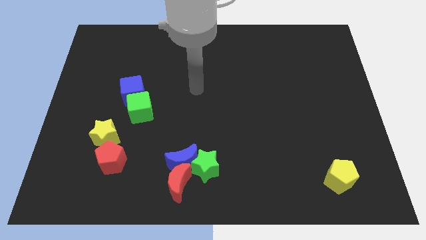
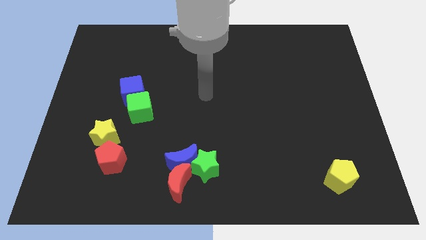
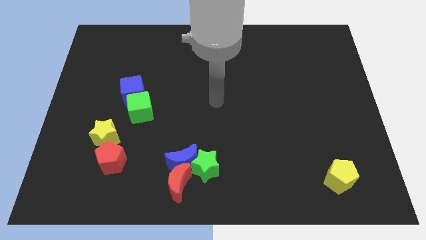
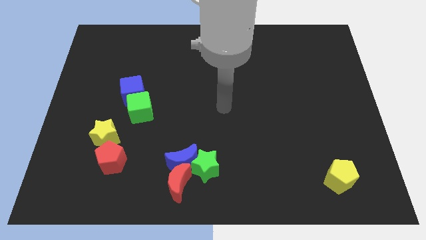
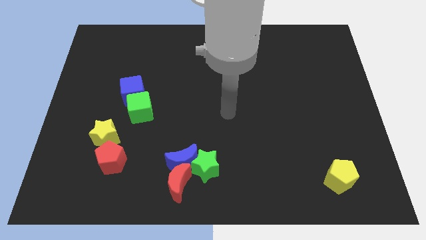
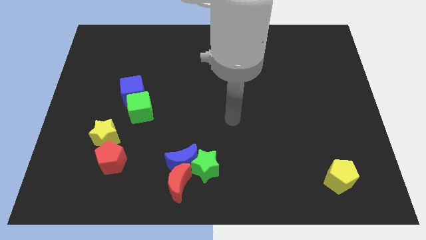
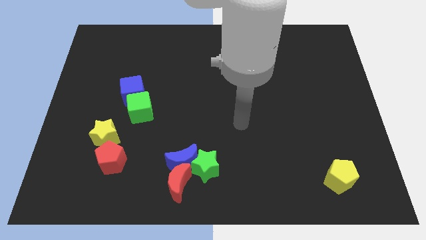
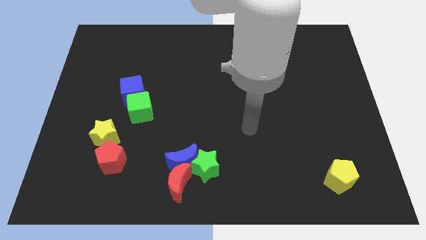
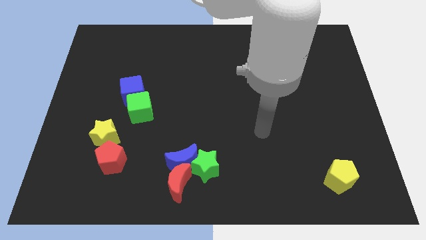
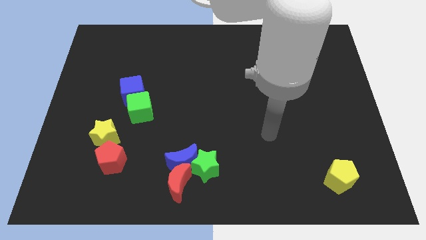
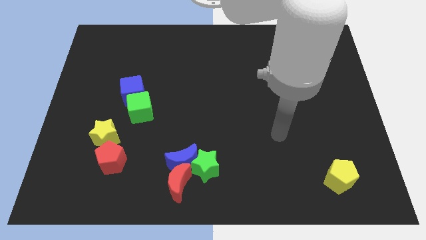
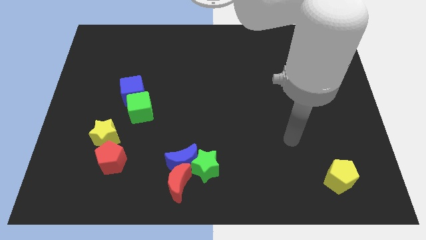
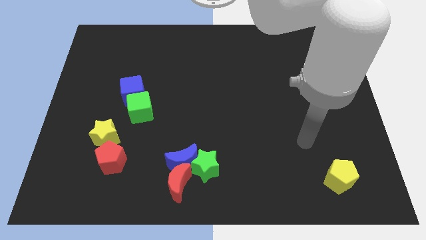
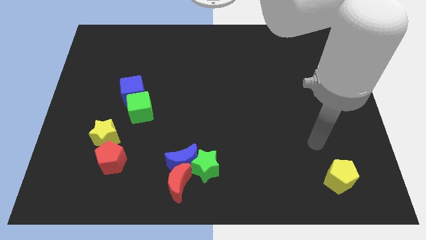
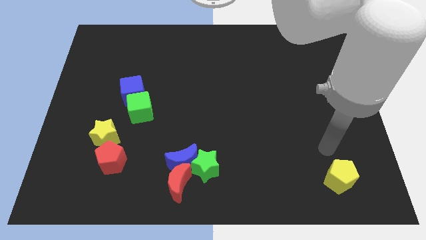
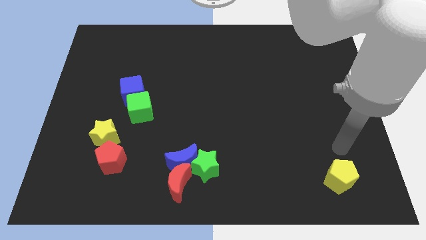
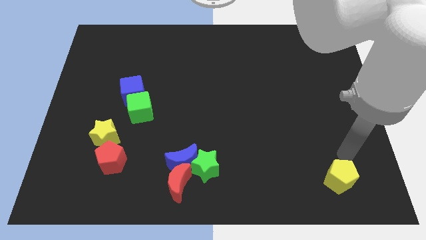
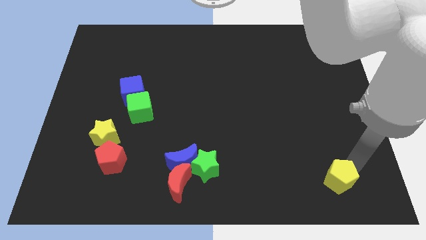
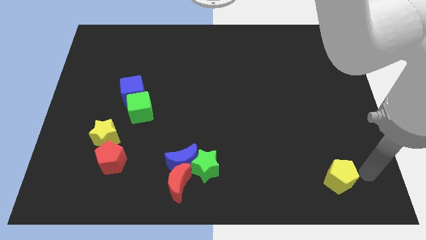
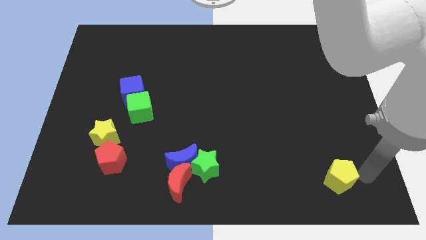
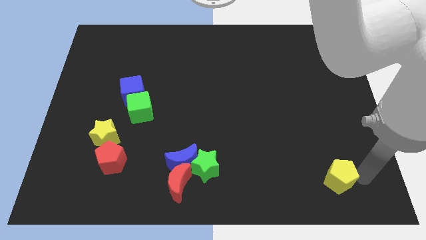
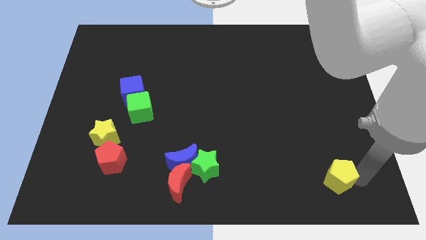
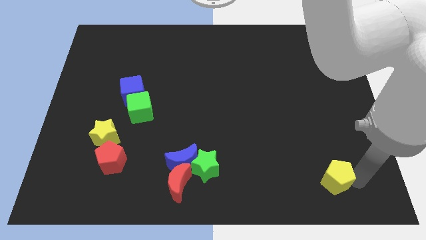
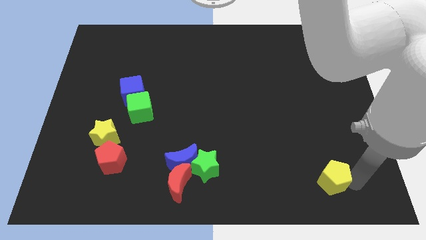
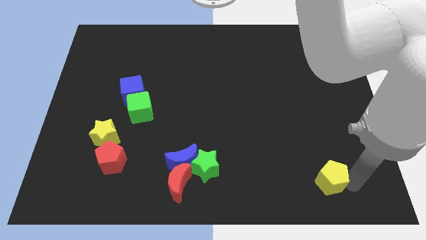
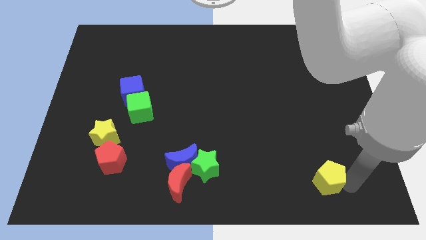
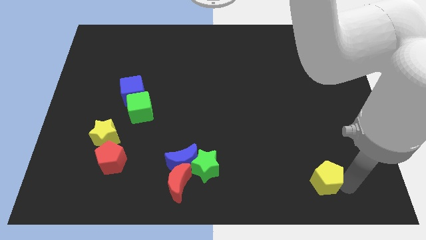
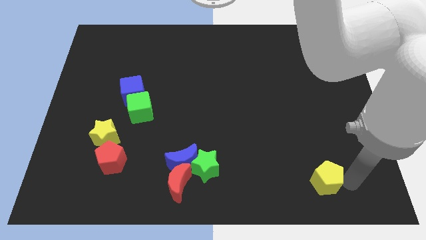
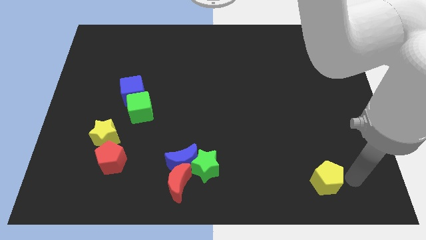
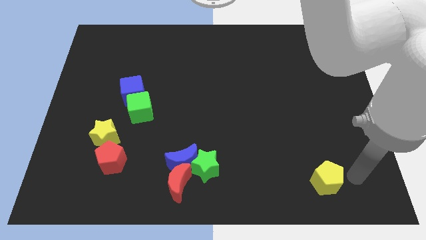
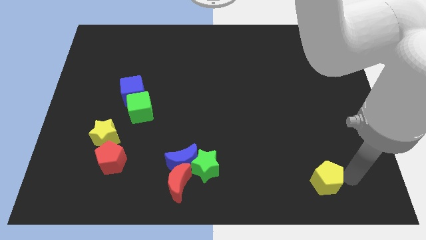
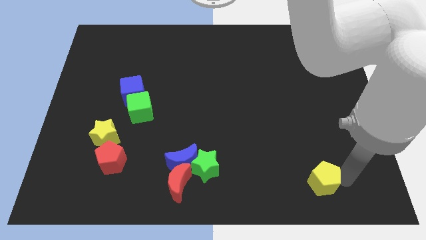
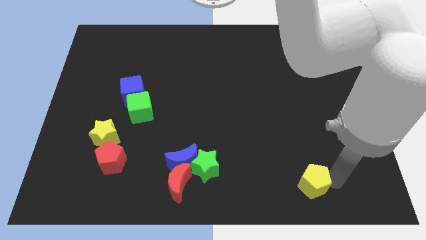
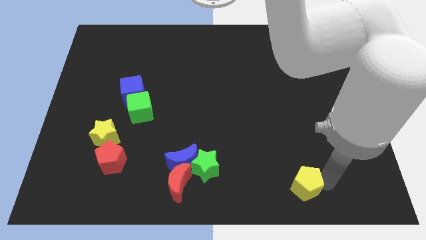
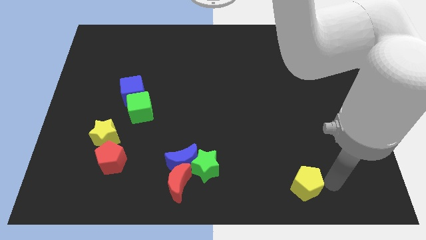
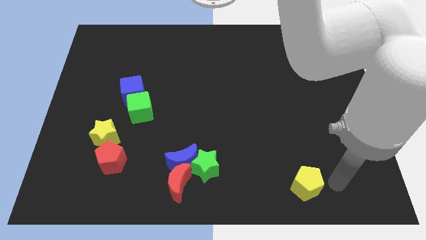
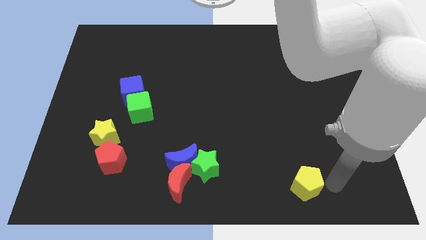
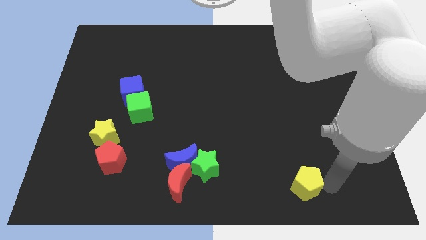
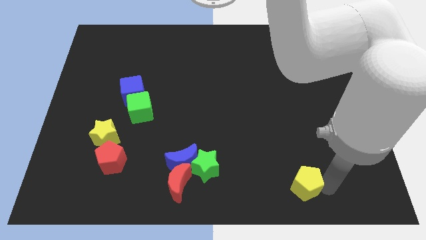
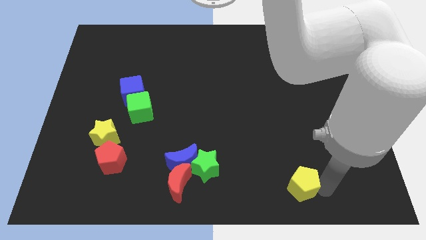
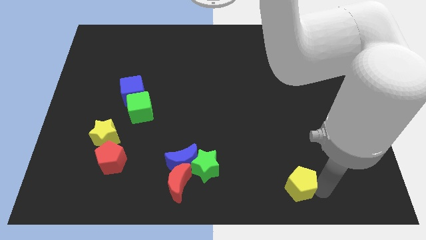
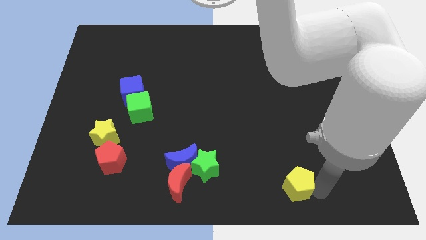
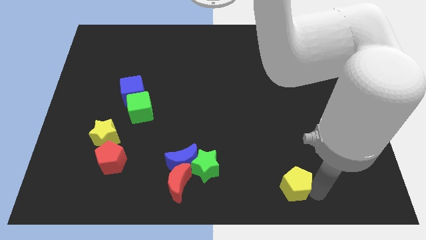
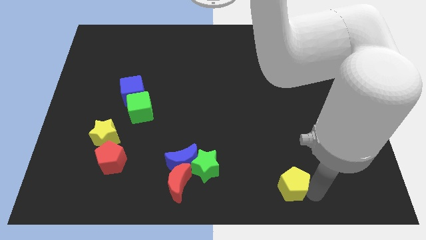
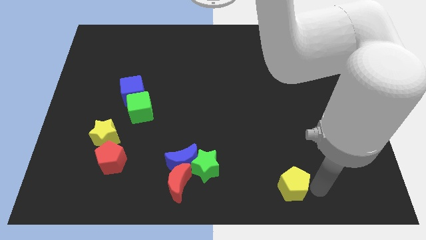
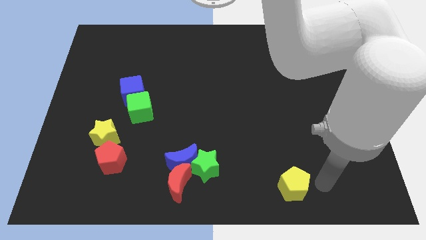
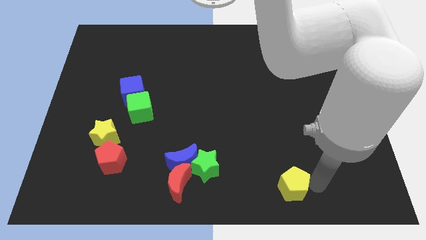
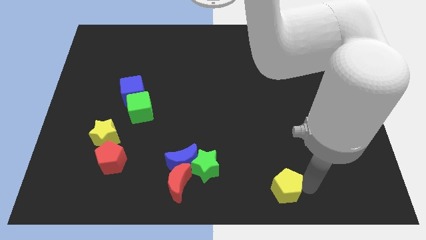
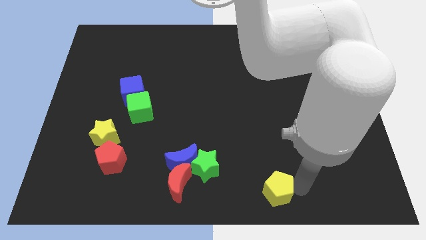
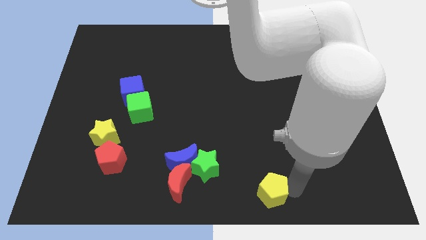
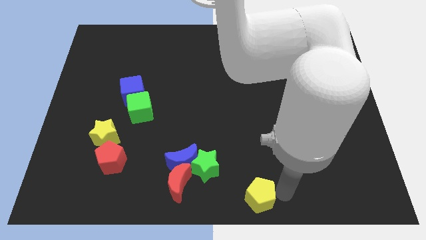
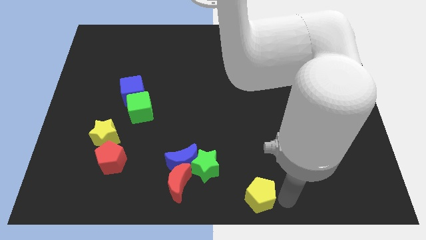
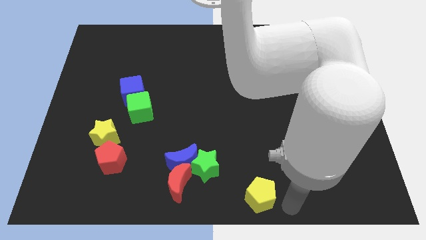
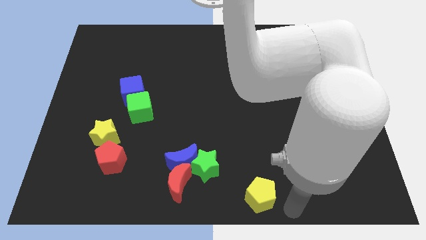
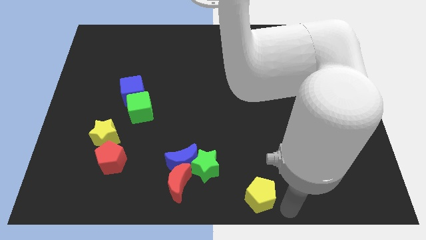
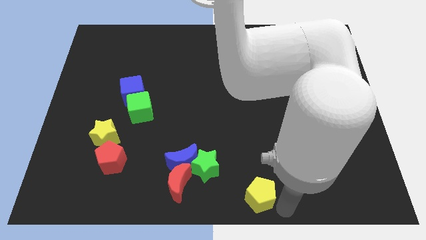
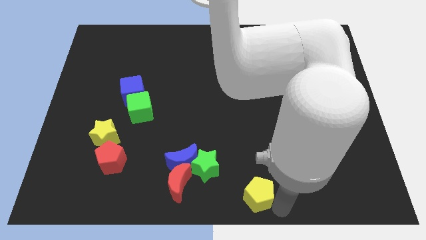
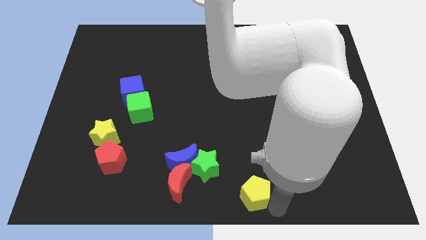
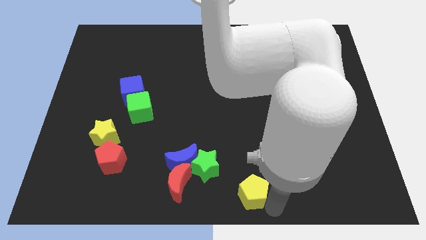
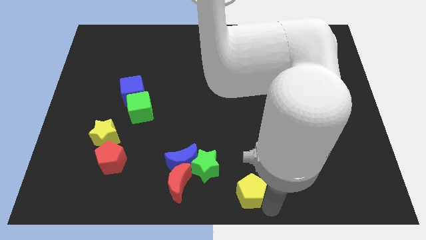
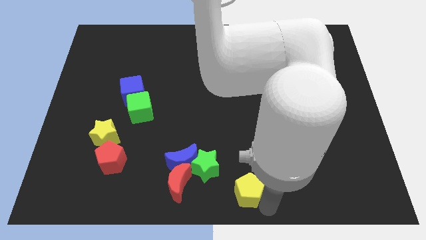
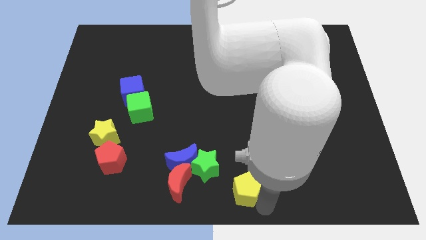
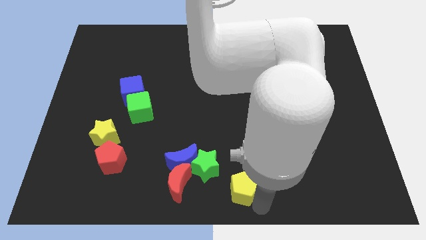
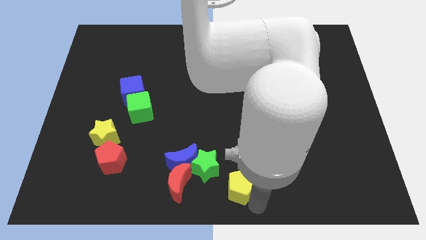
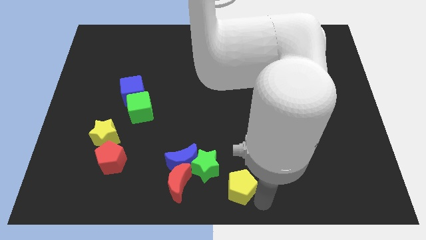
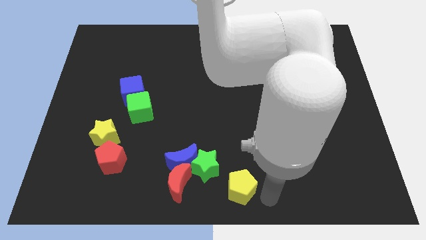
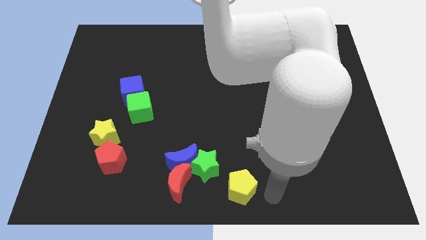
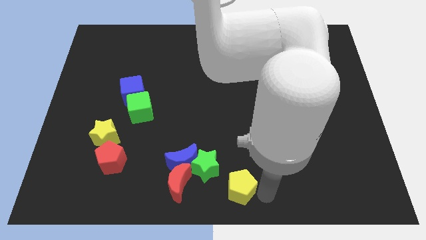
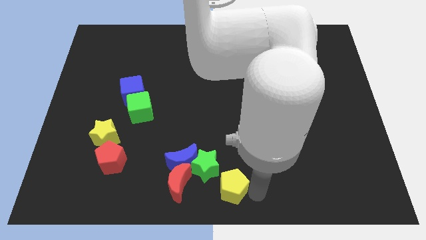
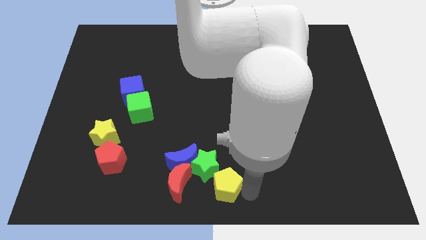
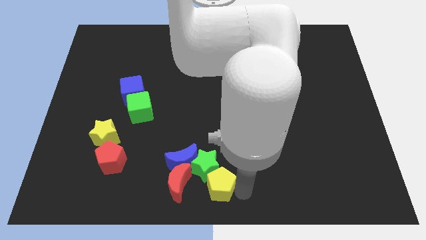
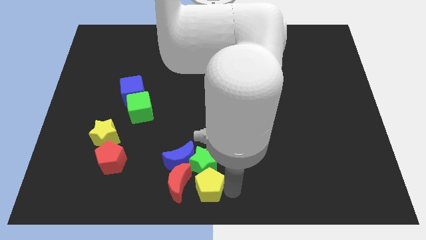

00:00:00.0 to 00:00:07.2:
slide the yellow pentagon next to the red moon

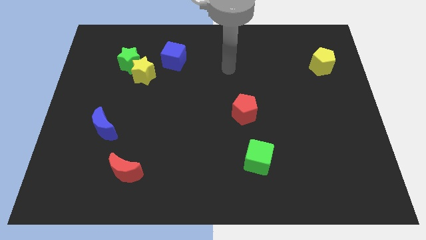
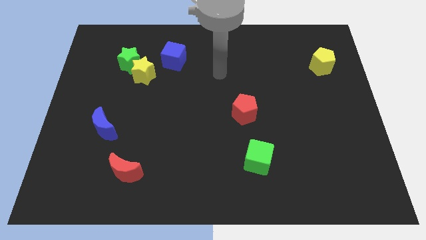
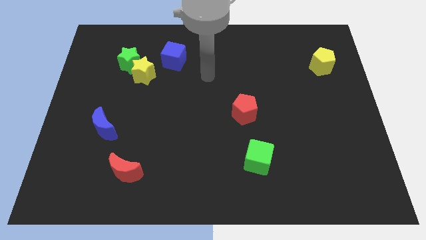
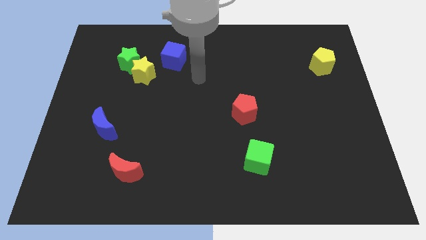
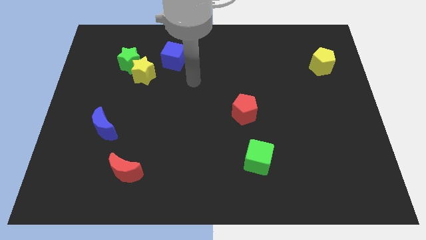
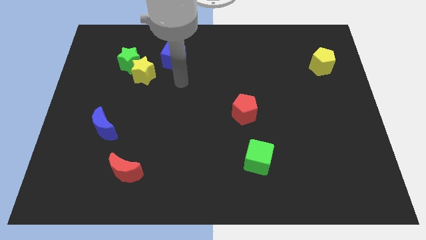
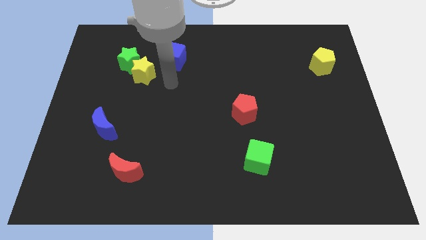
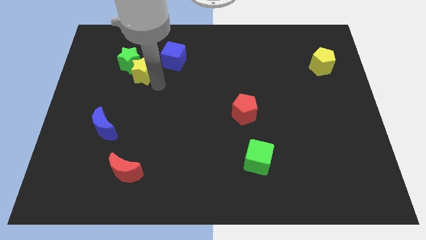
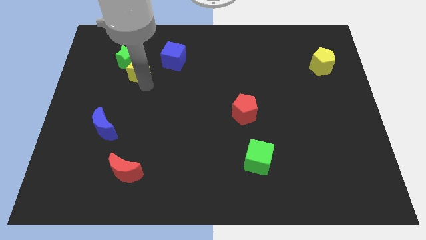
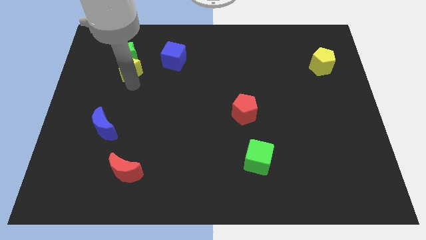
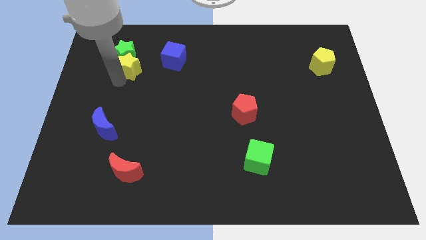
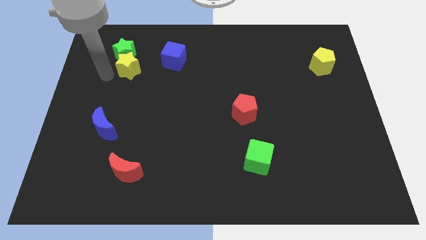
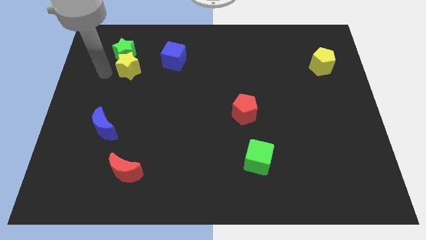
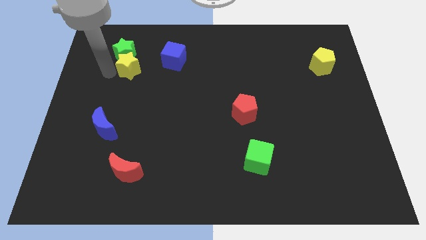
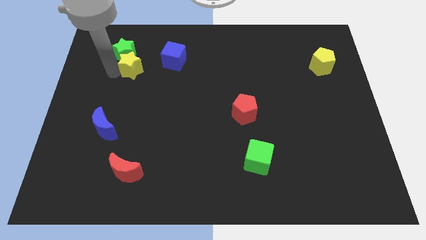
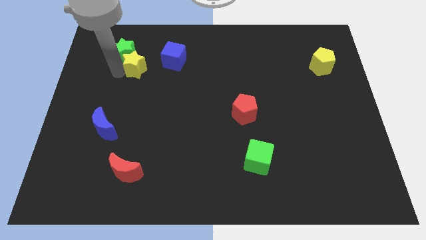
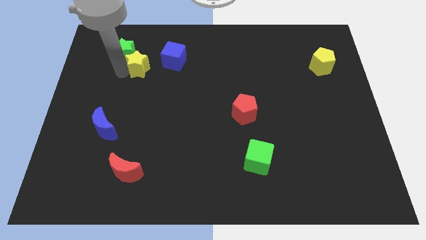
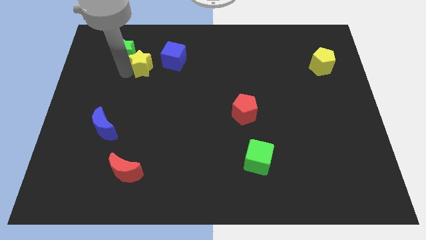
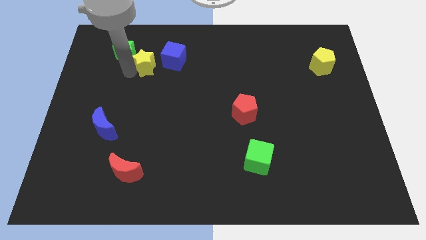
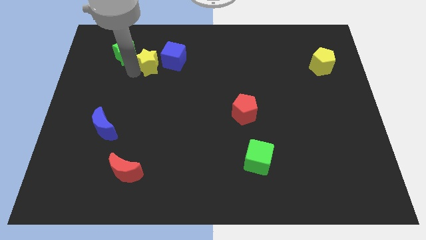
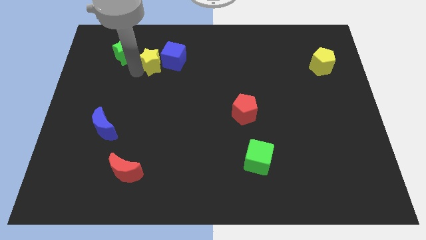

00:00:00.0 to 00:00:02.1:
move the yellow star close to the blue cube
